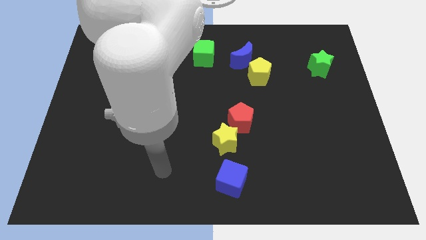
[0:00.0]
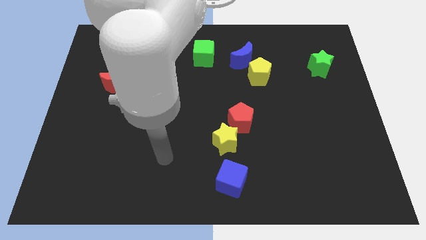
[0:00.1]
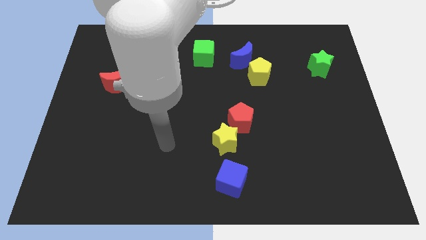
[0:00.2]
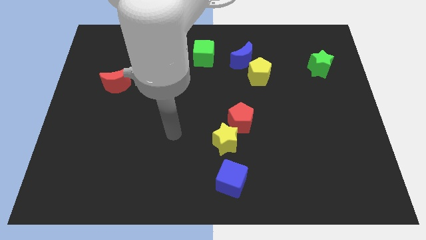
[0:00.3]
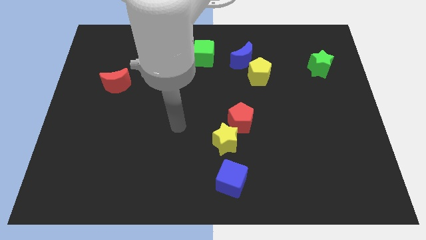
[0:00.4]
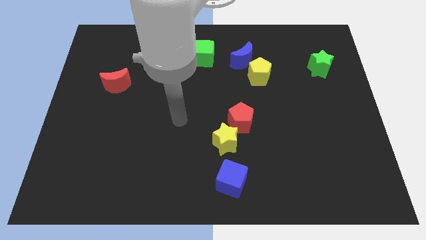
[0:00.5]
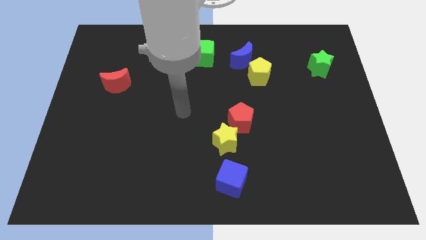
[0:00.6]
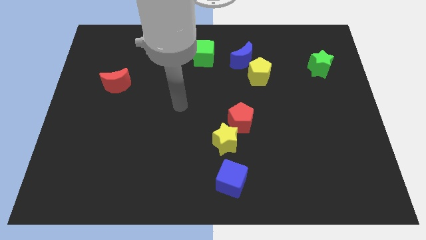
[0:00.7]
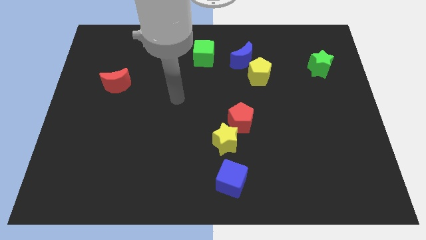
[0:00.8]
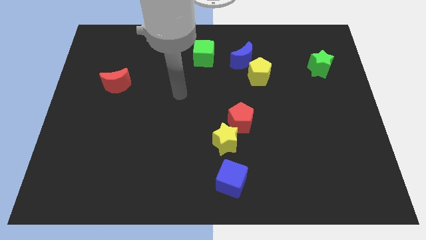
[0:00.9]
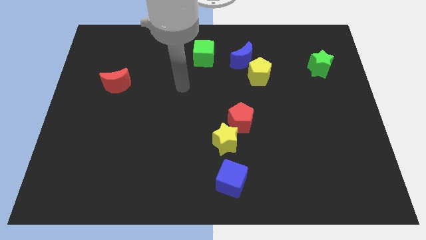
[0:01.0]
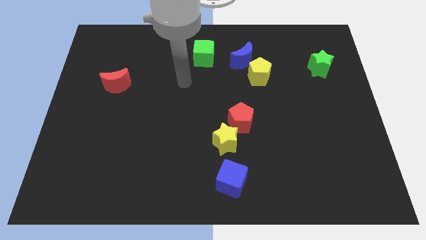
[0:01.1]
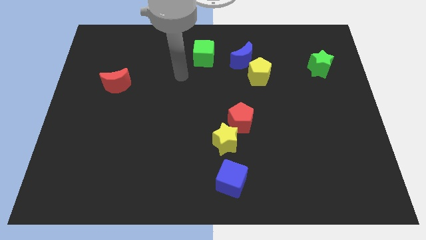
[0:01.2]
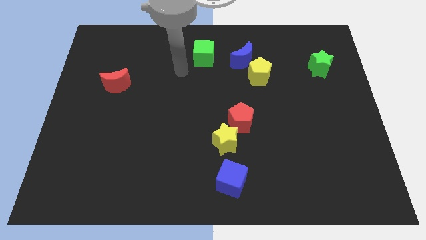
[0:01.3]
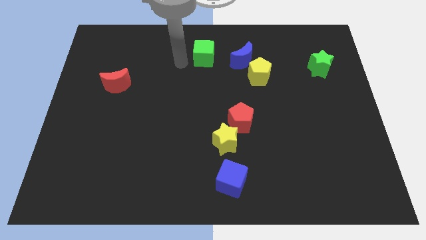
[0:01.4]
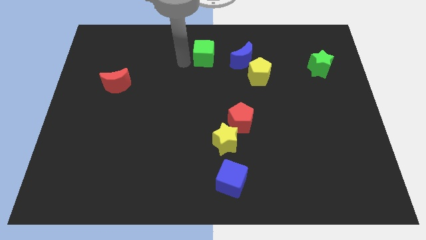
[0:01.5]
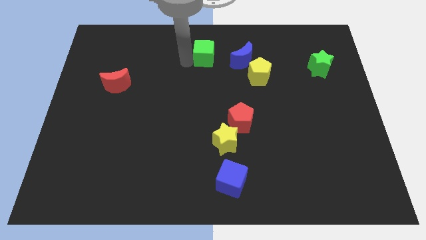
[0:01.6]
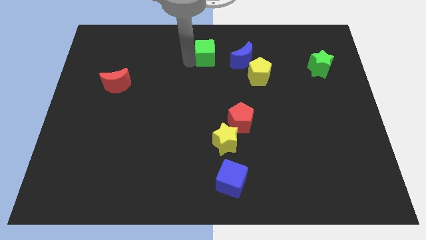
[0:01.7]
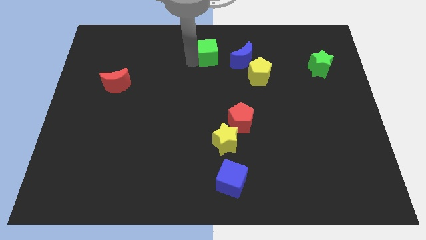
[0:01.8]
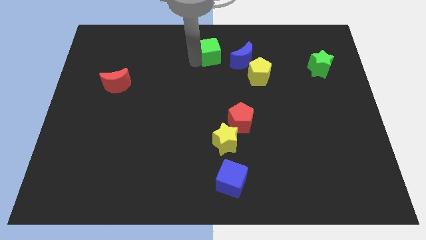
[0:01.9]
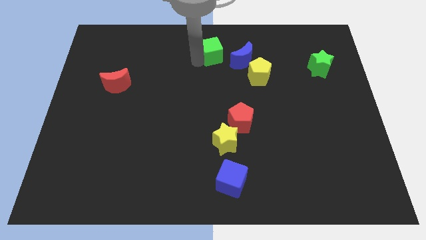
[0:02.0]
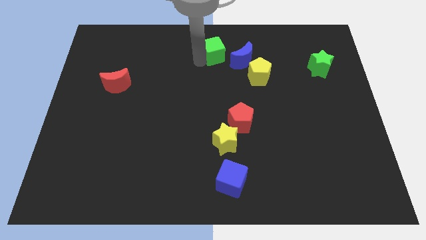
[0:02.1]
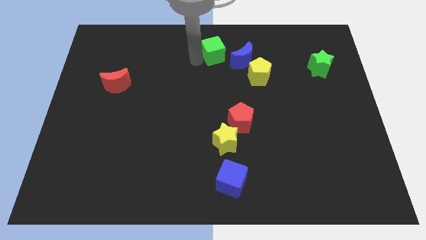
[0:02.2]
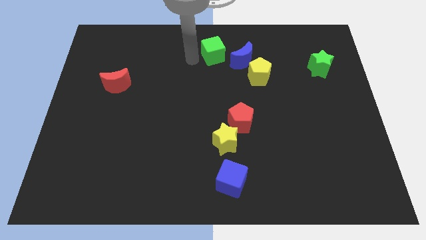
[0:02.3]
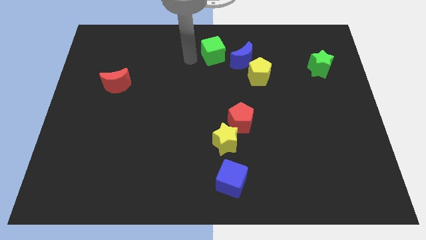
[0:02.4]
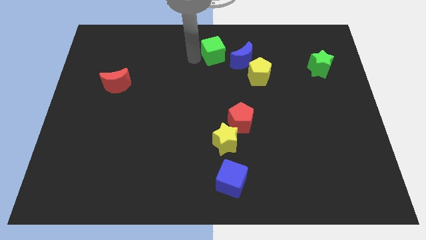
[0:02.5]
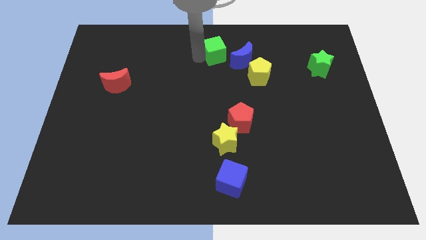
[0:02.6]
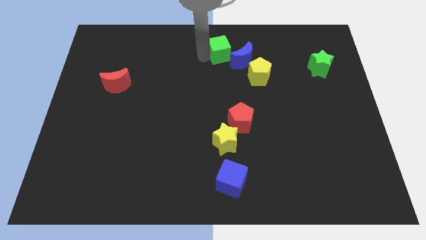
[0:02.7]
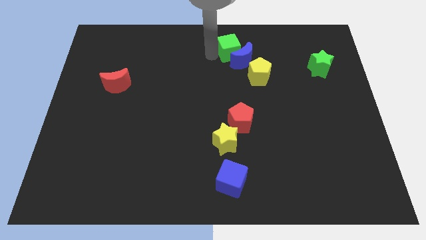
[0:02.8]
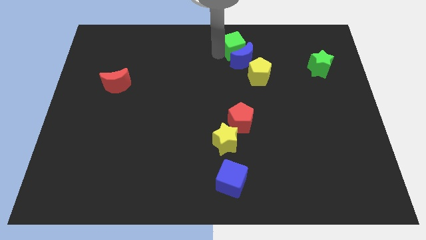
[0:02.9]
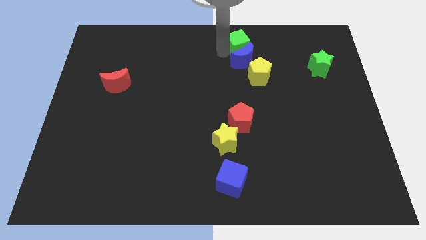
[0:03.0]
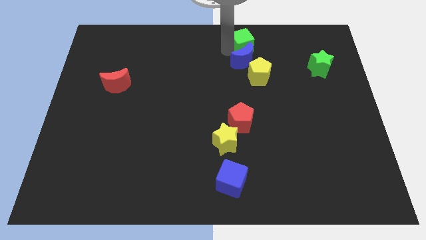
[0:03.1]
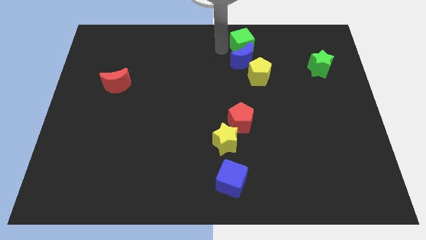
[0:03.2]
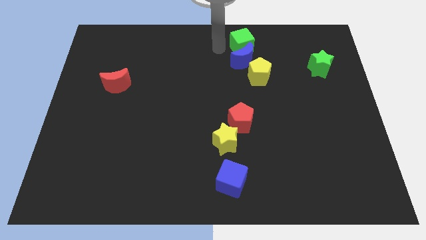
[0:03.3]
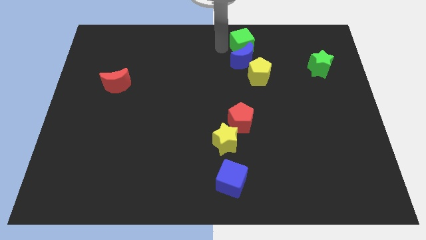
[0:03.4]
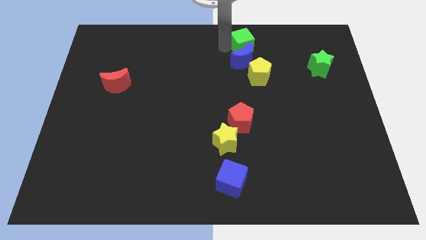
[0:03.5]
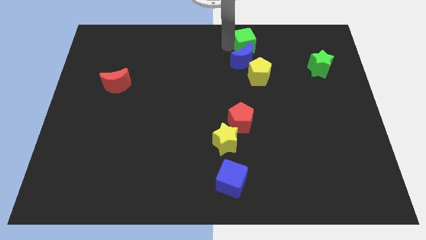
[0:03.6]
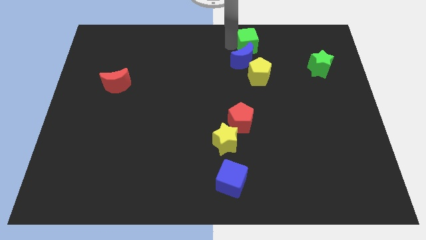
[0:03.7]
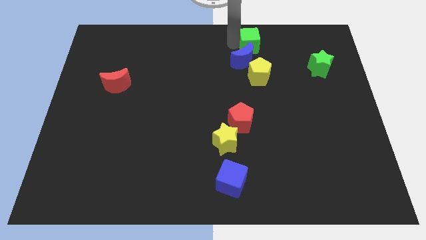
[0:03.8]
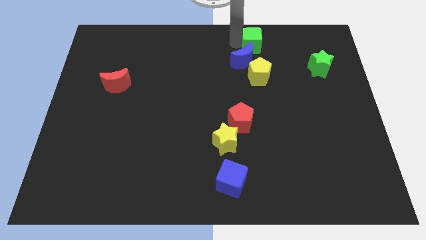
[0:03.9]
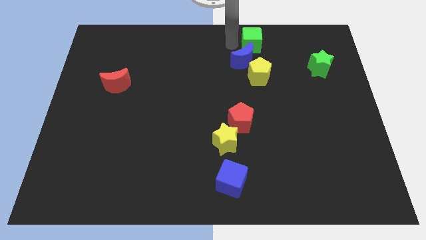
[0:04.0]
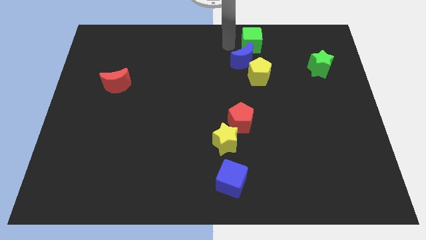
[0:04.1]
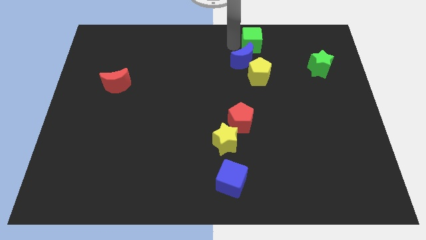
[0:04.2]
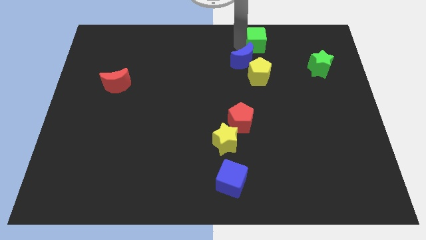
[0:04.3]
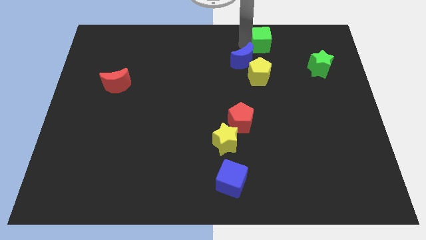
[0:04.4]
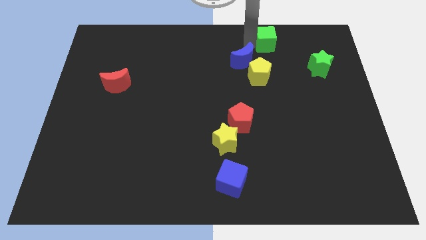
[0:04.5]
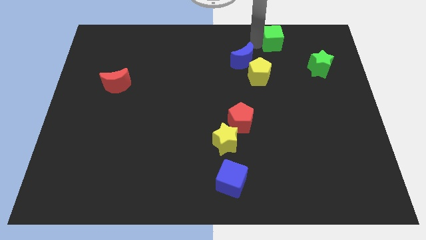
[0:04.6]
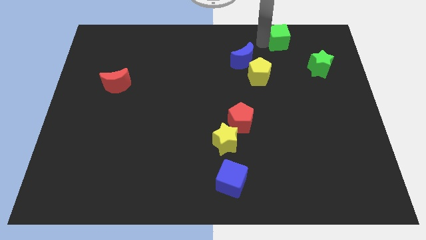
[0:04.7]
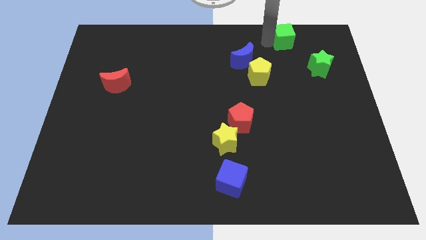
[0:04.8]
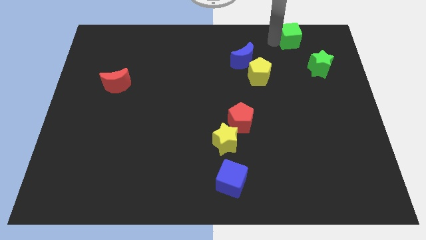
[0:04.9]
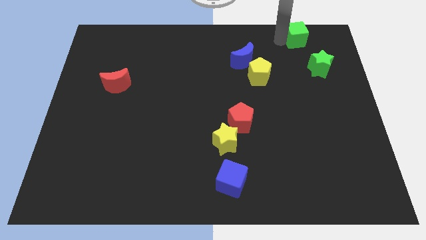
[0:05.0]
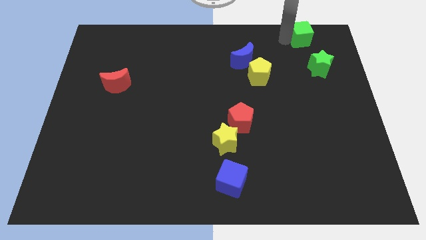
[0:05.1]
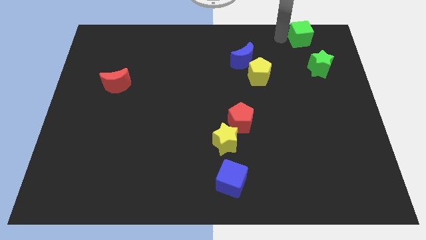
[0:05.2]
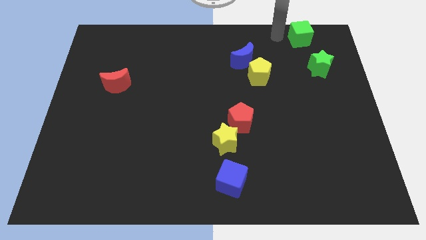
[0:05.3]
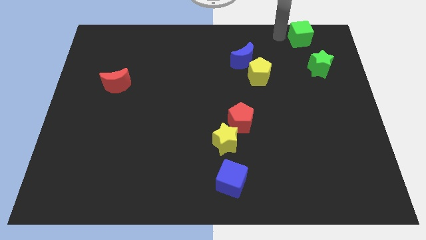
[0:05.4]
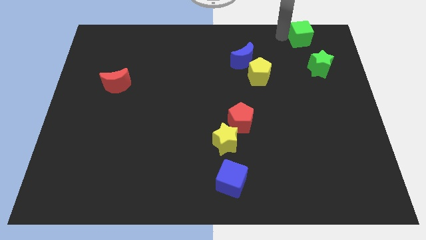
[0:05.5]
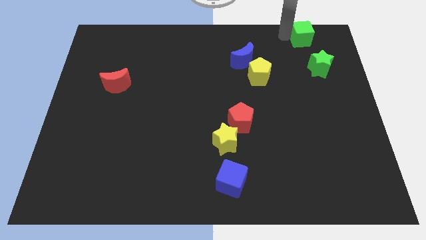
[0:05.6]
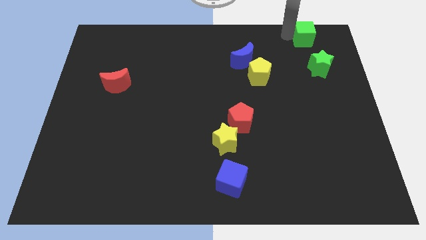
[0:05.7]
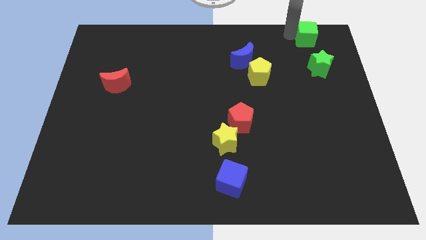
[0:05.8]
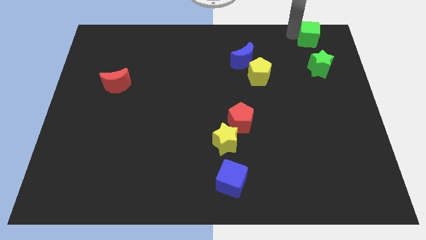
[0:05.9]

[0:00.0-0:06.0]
slide the green cube to the top right of the board
